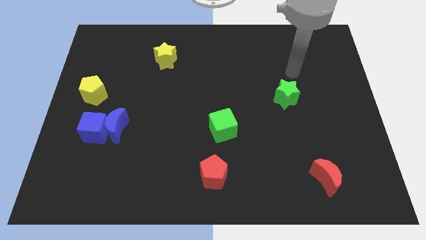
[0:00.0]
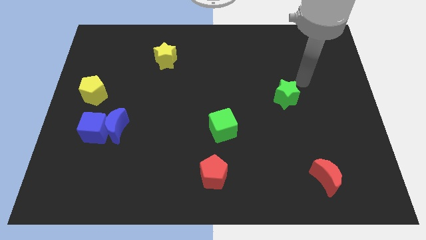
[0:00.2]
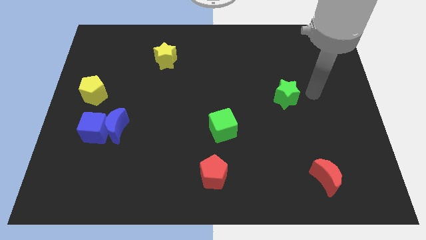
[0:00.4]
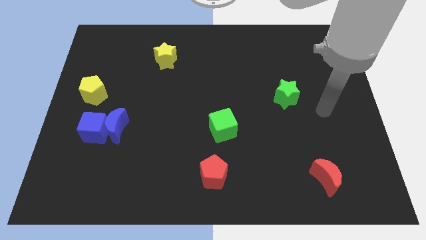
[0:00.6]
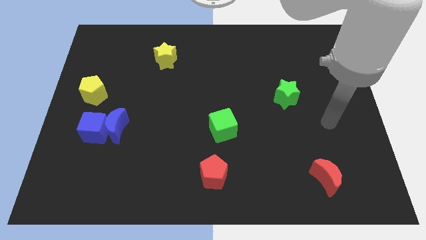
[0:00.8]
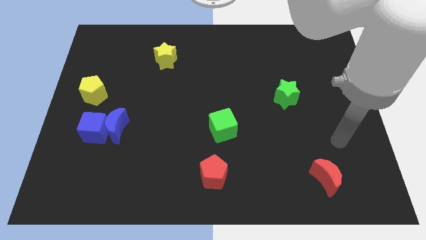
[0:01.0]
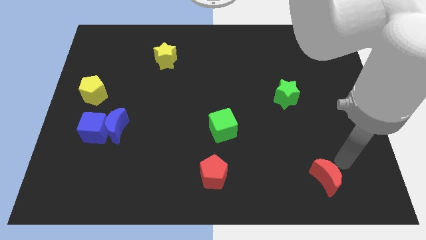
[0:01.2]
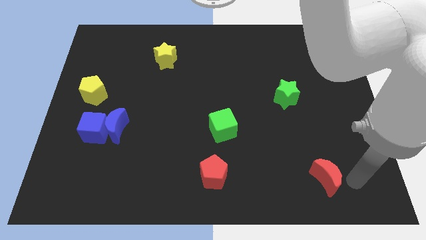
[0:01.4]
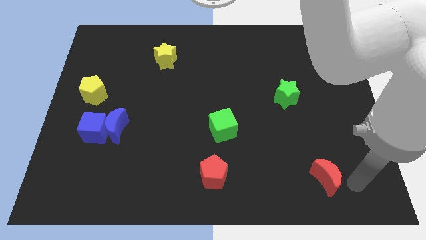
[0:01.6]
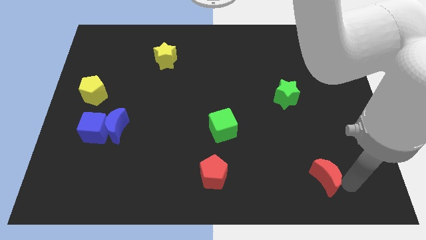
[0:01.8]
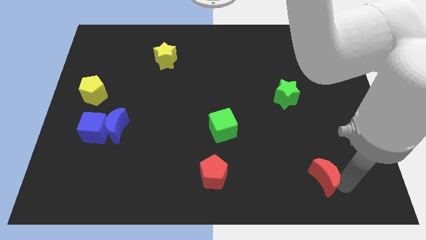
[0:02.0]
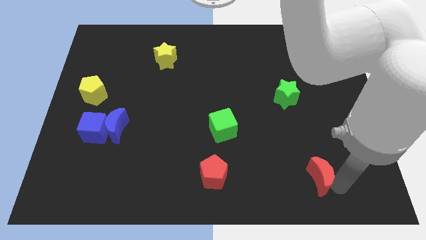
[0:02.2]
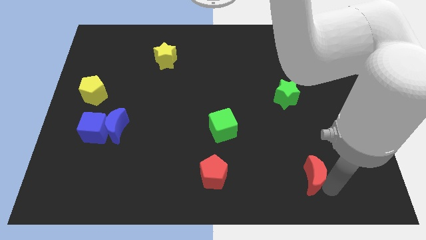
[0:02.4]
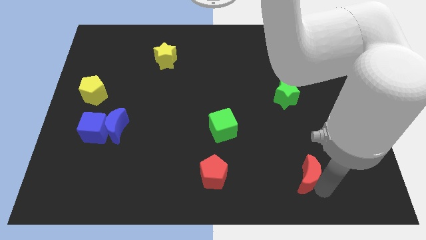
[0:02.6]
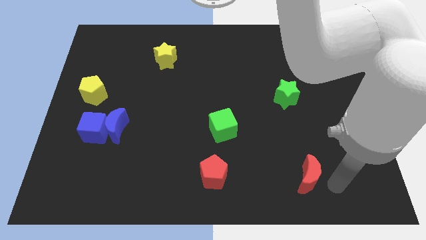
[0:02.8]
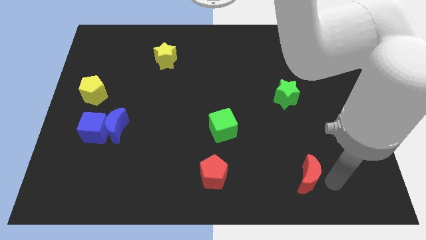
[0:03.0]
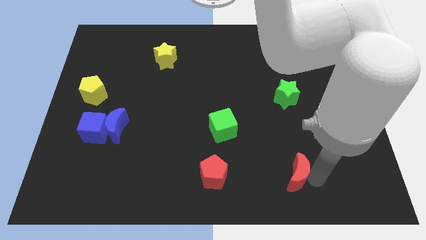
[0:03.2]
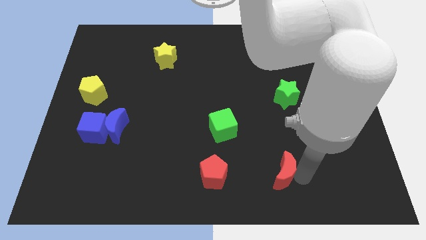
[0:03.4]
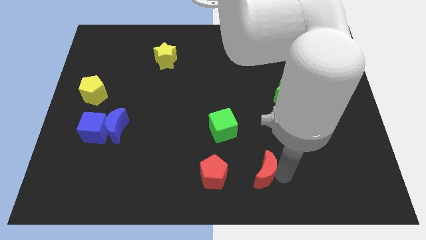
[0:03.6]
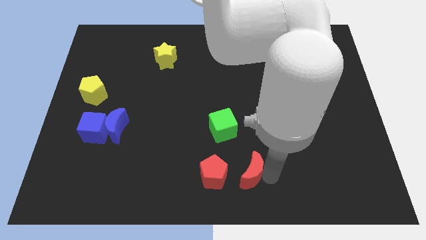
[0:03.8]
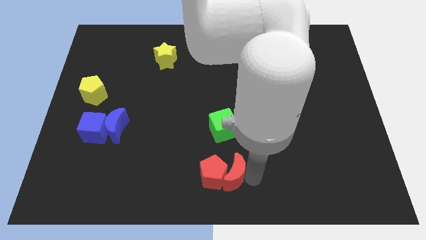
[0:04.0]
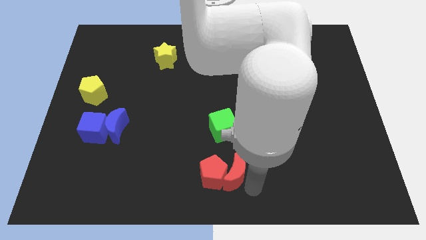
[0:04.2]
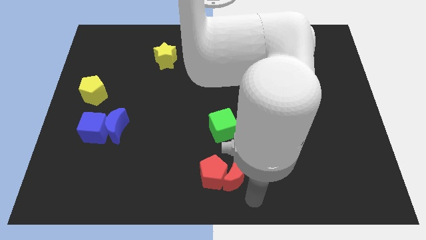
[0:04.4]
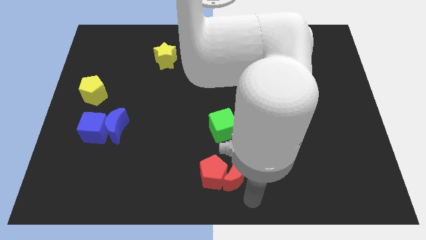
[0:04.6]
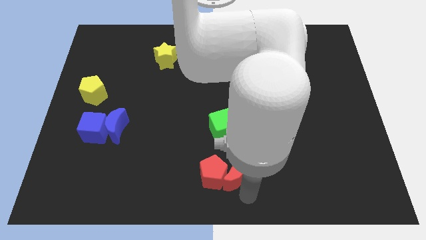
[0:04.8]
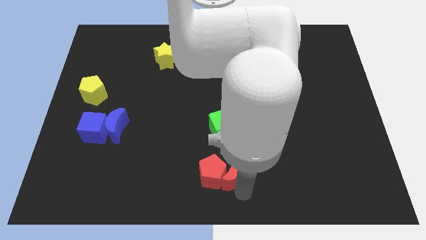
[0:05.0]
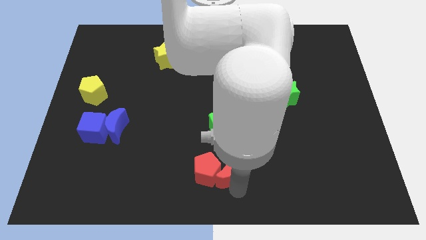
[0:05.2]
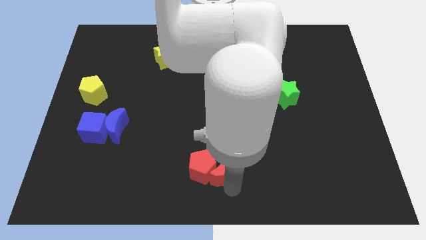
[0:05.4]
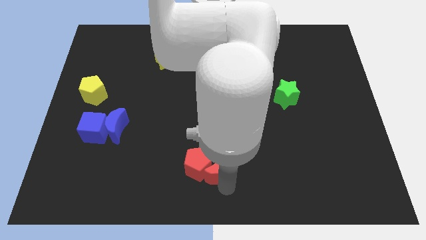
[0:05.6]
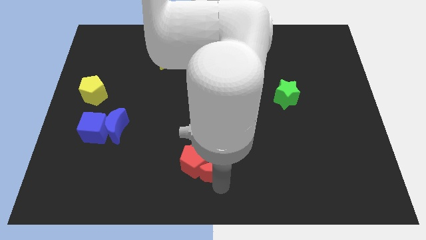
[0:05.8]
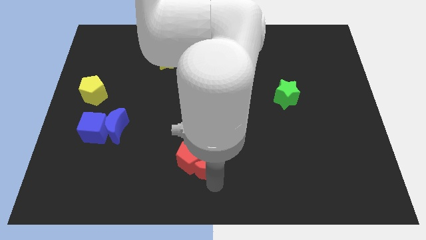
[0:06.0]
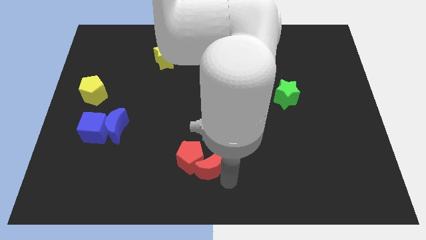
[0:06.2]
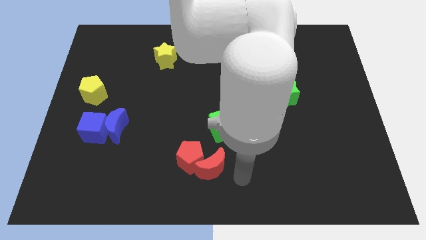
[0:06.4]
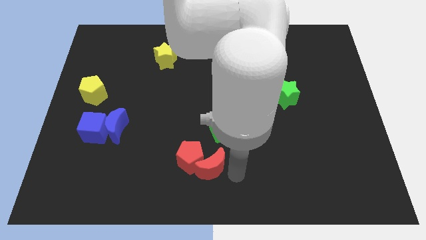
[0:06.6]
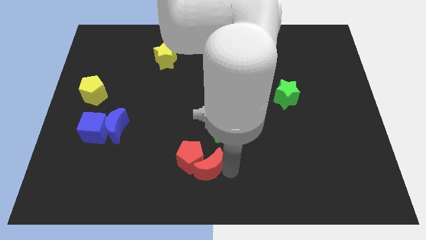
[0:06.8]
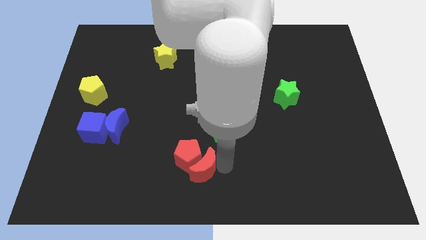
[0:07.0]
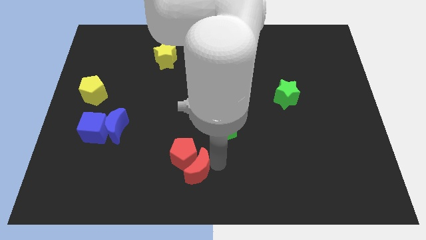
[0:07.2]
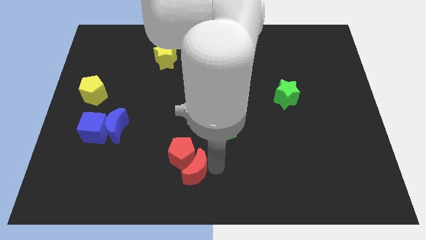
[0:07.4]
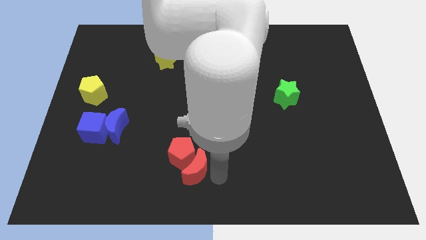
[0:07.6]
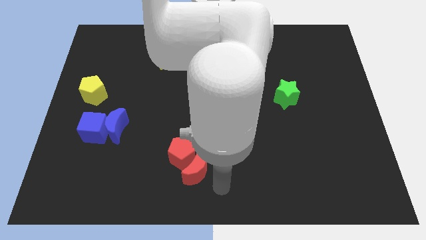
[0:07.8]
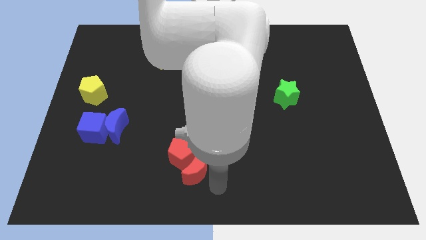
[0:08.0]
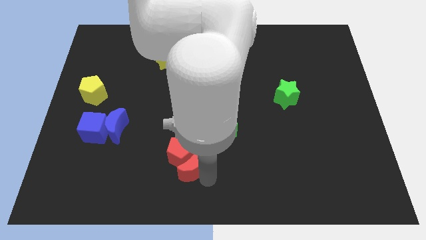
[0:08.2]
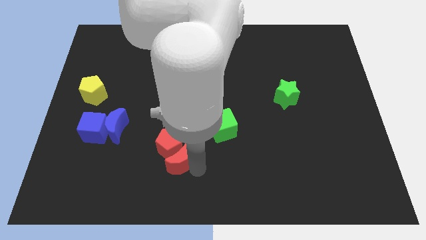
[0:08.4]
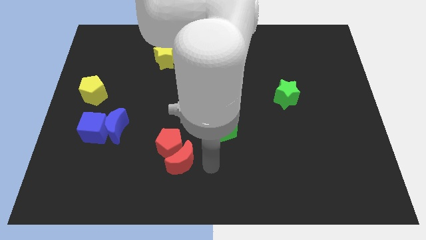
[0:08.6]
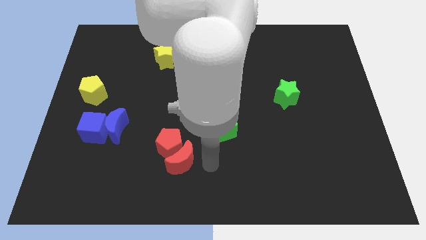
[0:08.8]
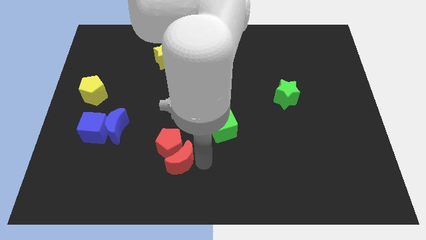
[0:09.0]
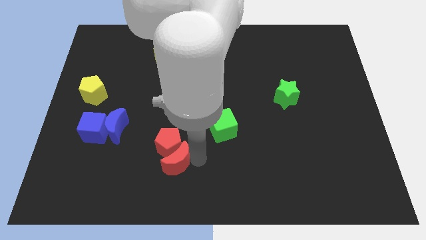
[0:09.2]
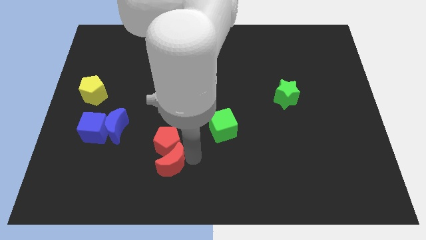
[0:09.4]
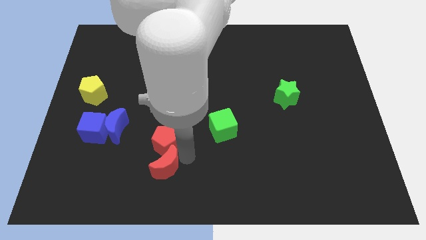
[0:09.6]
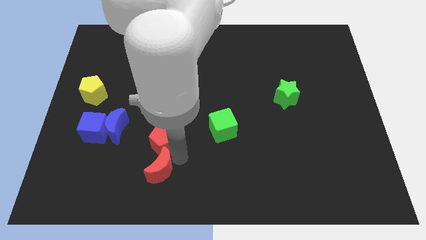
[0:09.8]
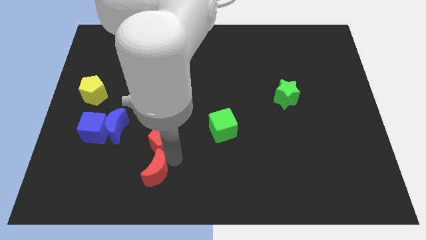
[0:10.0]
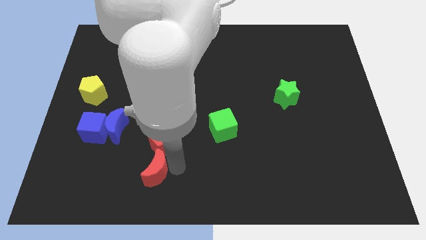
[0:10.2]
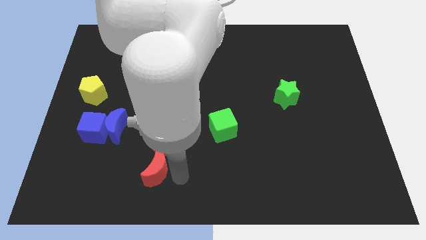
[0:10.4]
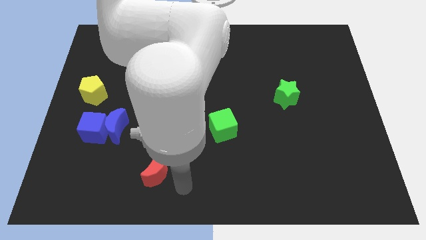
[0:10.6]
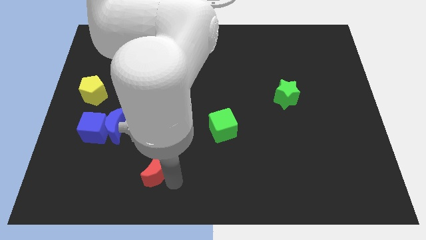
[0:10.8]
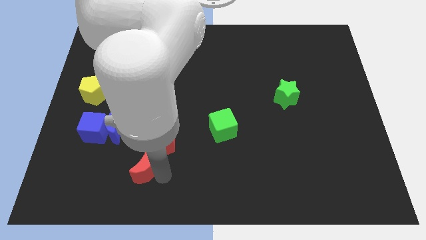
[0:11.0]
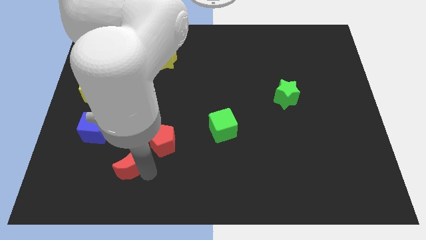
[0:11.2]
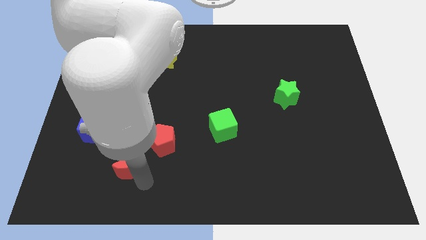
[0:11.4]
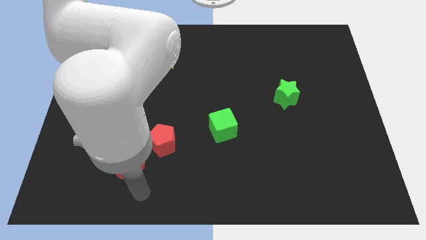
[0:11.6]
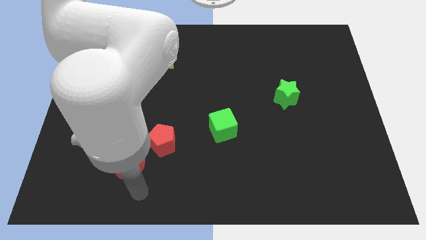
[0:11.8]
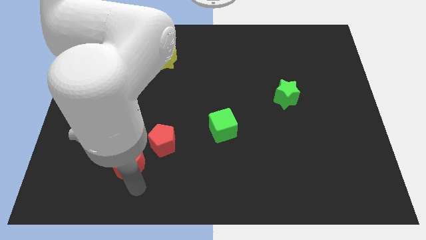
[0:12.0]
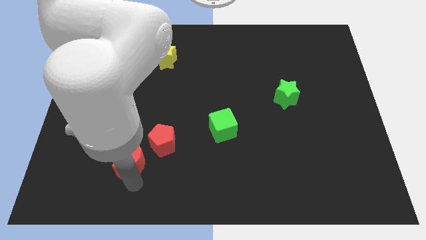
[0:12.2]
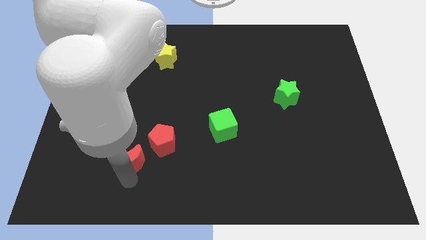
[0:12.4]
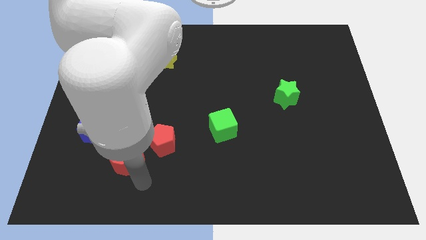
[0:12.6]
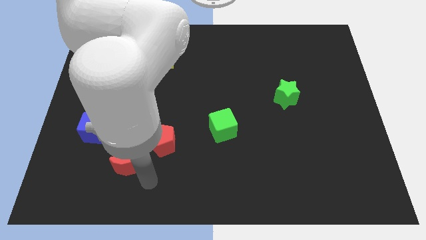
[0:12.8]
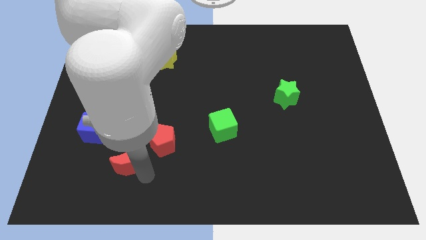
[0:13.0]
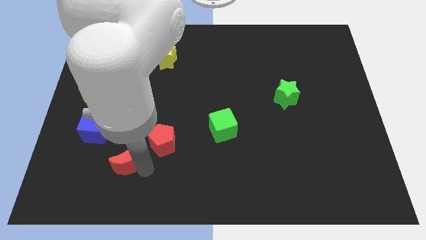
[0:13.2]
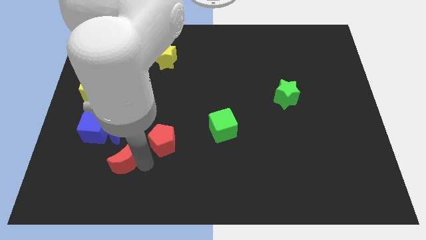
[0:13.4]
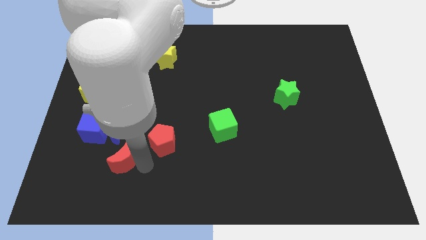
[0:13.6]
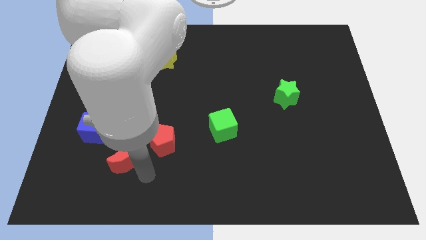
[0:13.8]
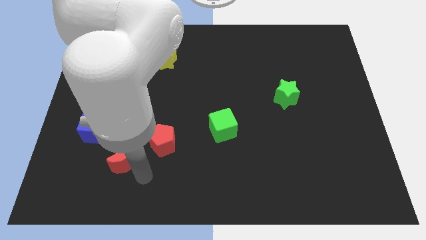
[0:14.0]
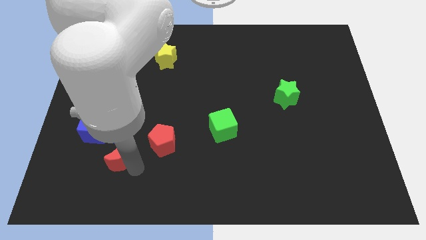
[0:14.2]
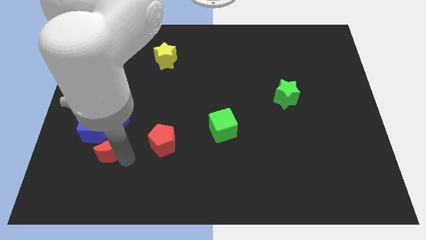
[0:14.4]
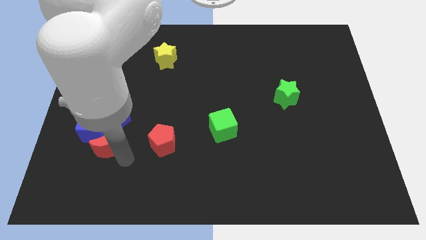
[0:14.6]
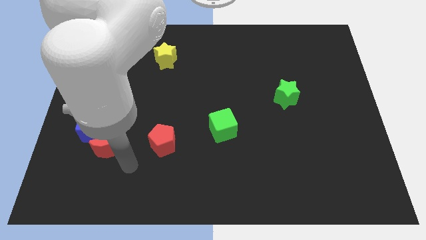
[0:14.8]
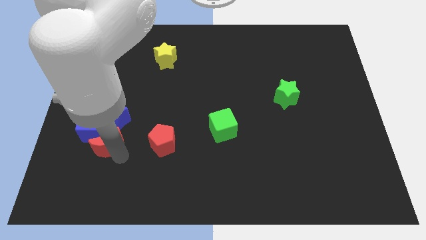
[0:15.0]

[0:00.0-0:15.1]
push the red moon towards the blue cube
